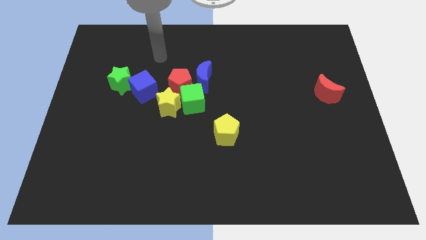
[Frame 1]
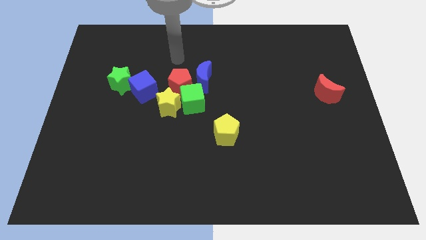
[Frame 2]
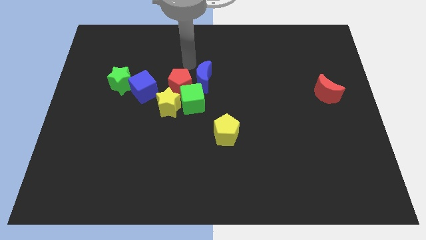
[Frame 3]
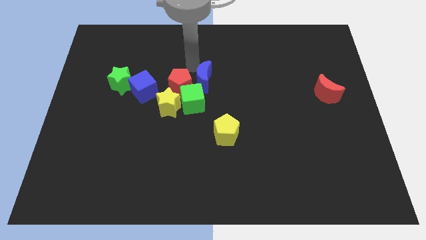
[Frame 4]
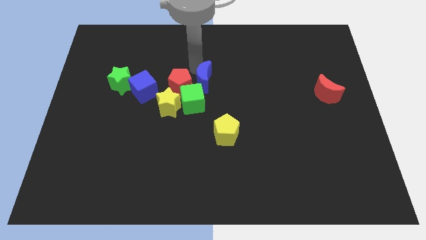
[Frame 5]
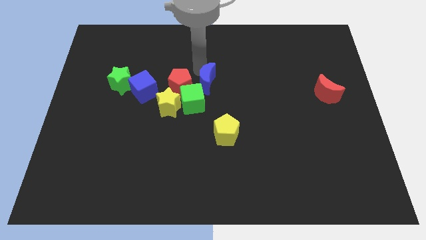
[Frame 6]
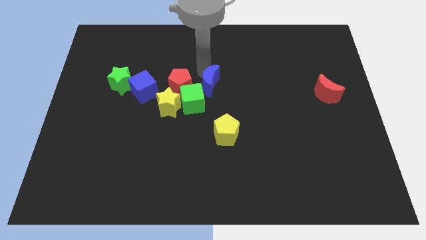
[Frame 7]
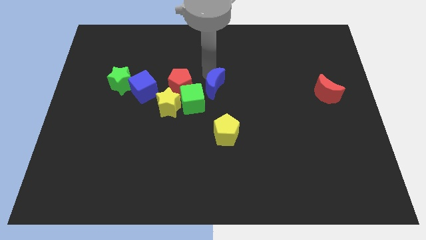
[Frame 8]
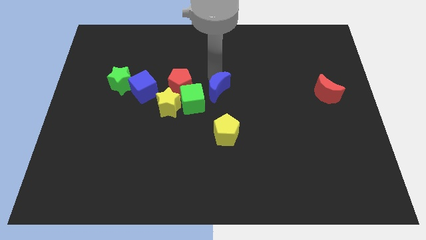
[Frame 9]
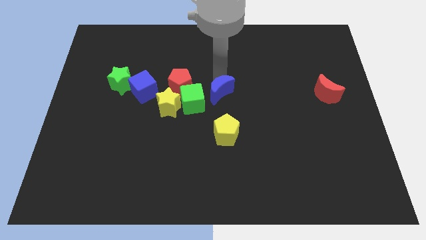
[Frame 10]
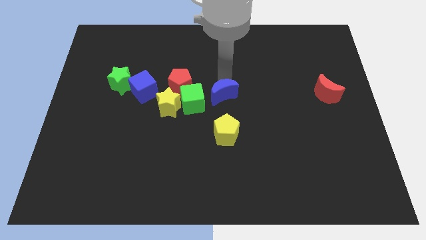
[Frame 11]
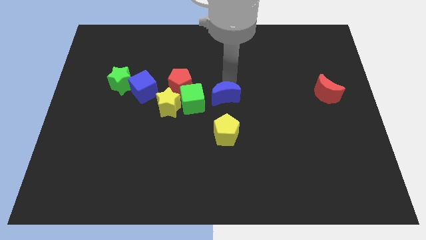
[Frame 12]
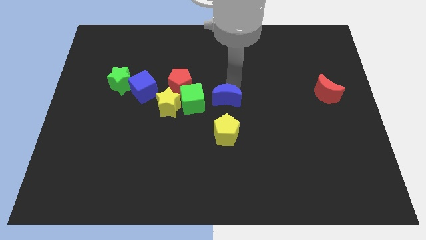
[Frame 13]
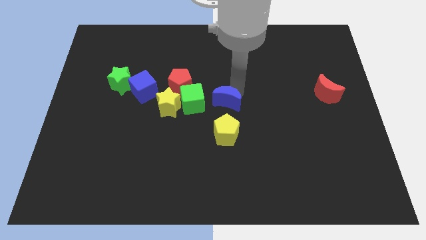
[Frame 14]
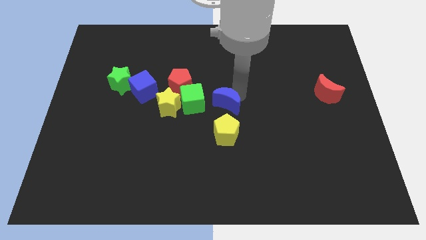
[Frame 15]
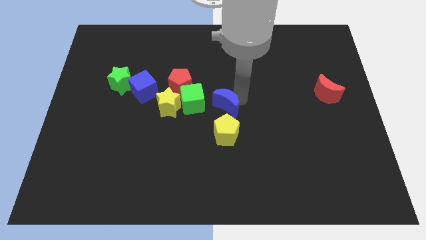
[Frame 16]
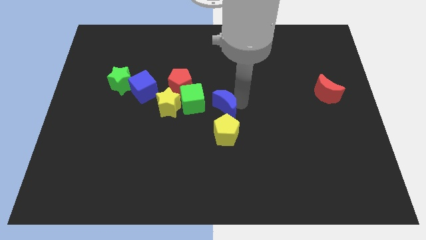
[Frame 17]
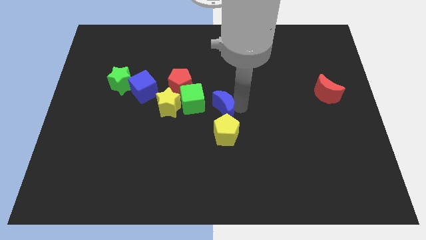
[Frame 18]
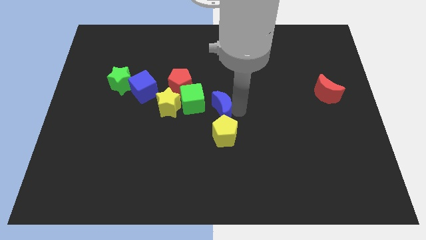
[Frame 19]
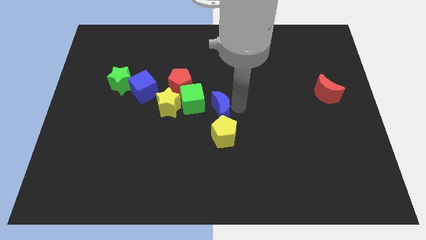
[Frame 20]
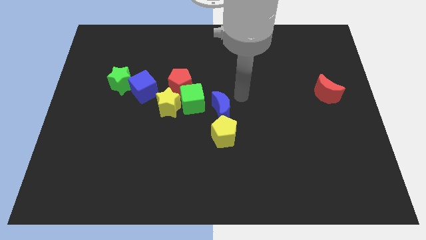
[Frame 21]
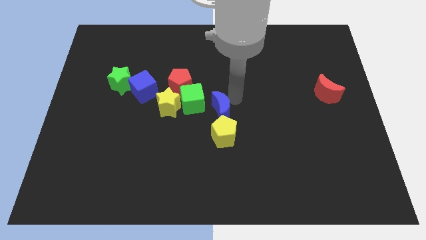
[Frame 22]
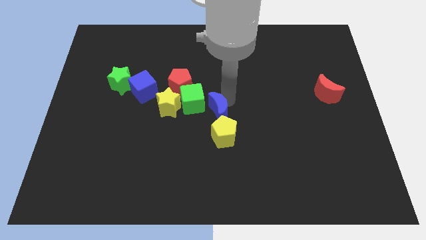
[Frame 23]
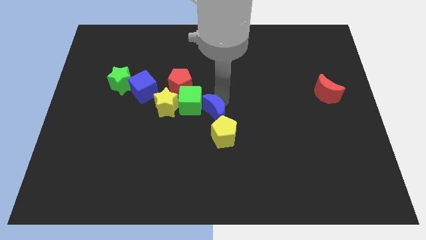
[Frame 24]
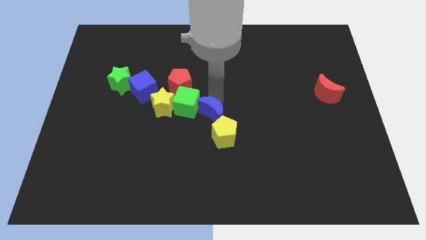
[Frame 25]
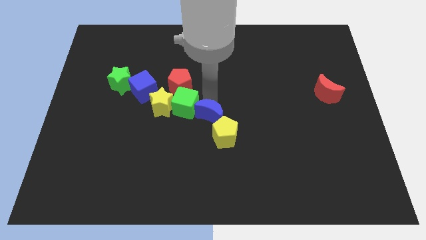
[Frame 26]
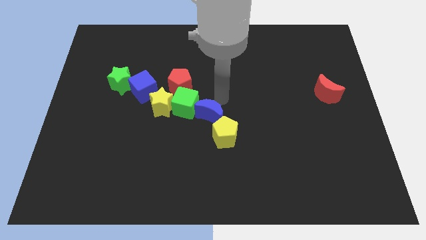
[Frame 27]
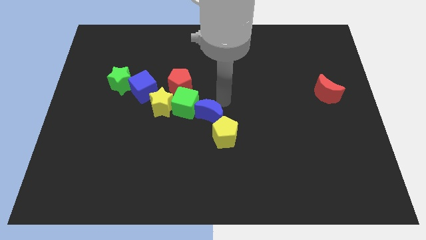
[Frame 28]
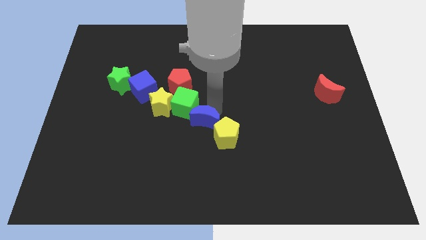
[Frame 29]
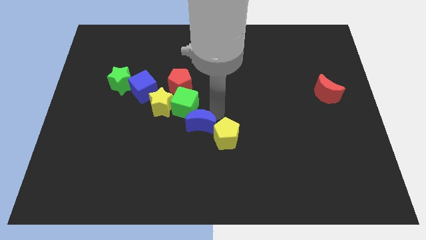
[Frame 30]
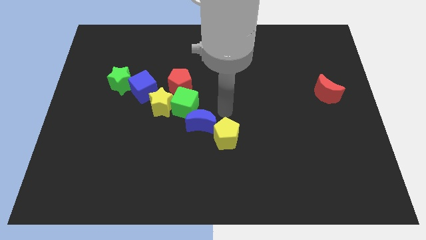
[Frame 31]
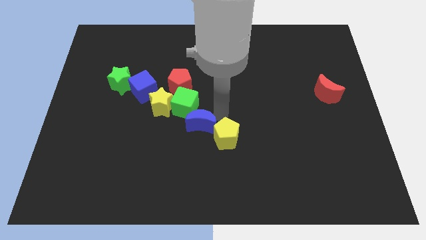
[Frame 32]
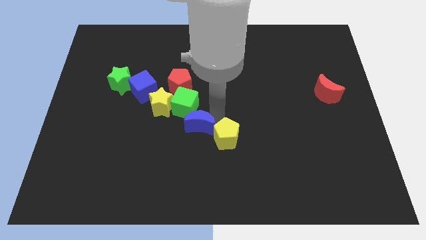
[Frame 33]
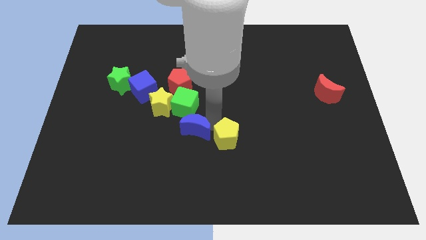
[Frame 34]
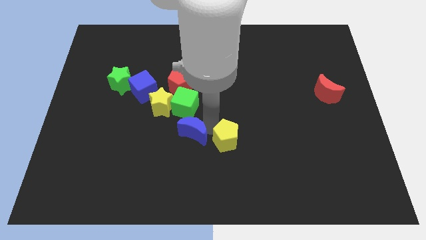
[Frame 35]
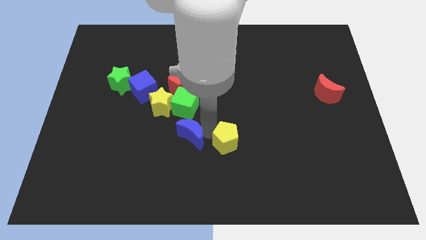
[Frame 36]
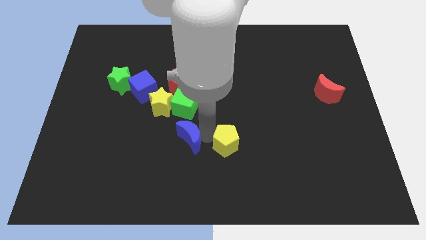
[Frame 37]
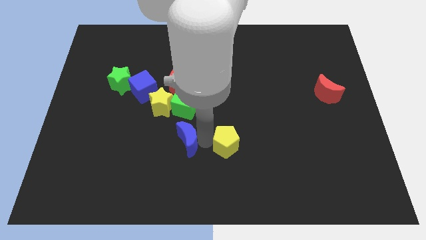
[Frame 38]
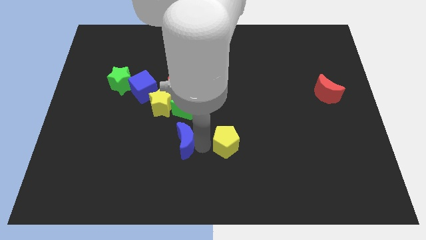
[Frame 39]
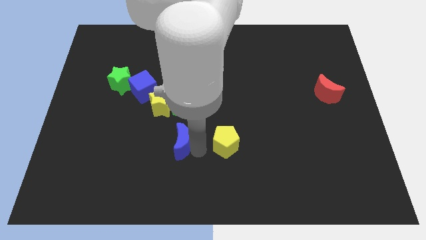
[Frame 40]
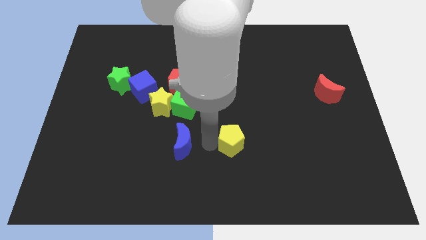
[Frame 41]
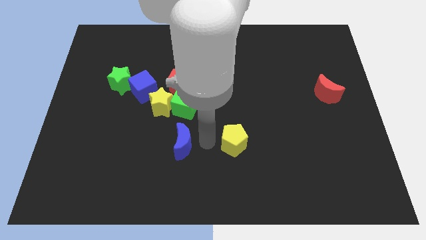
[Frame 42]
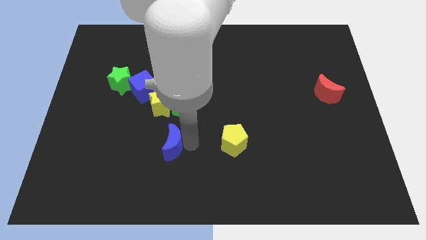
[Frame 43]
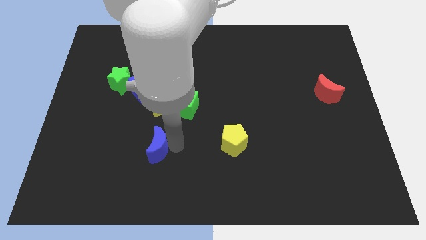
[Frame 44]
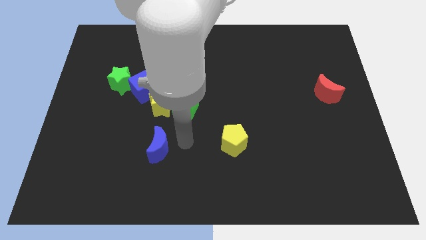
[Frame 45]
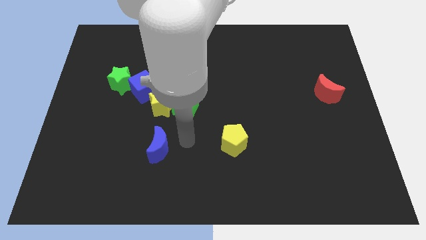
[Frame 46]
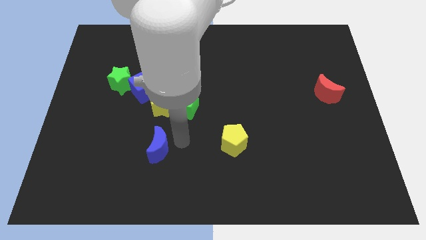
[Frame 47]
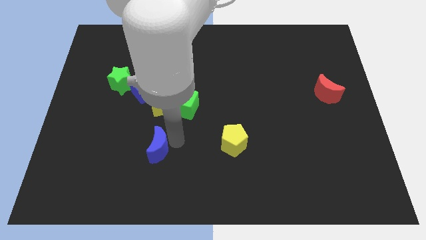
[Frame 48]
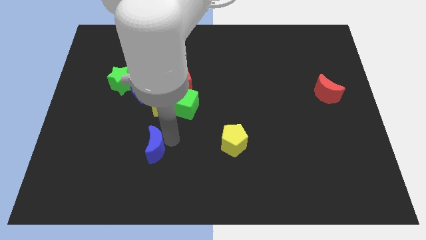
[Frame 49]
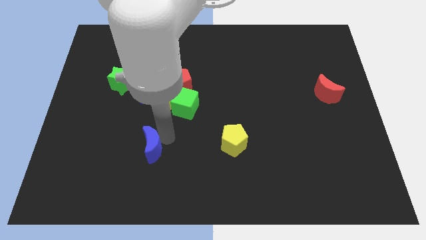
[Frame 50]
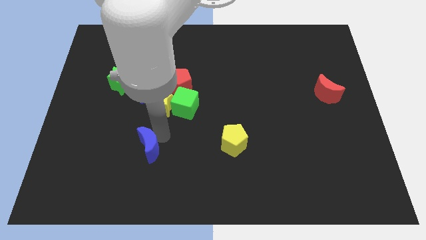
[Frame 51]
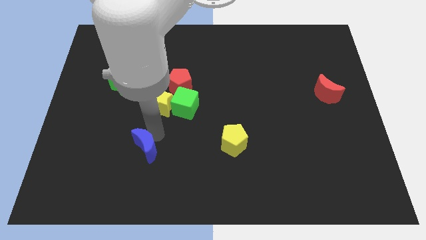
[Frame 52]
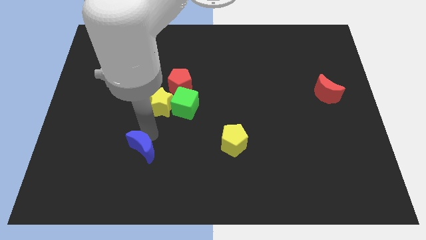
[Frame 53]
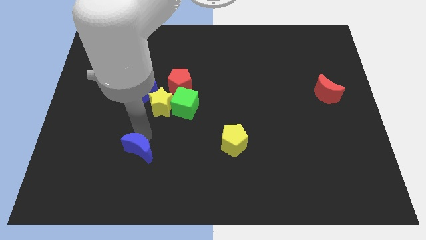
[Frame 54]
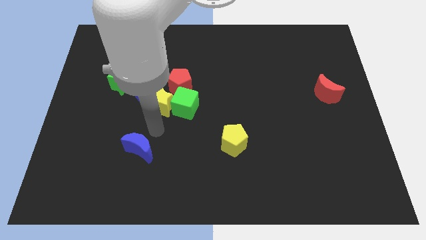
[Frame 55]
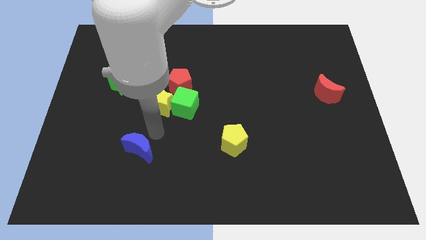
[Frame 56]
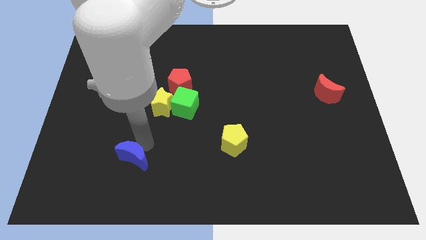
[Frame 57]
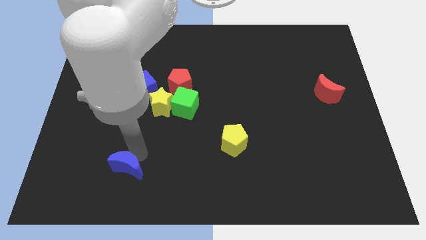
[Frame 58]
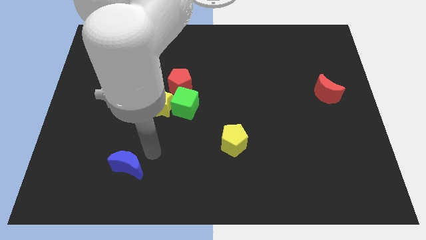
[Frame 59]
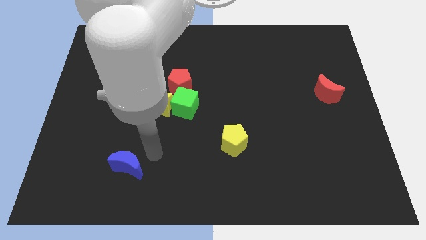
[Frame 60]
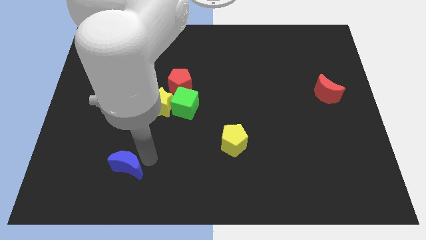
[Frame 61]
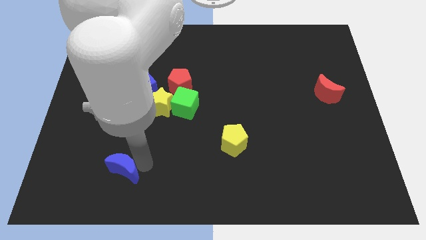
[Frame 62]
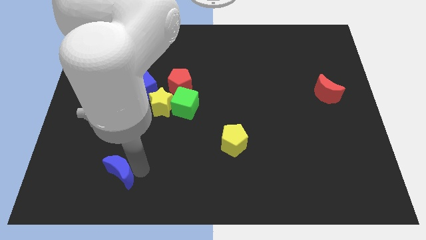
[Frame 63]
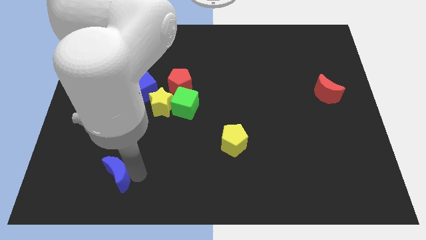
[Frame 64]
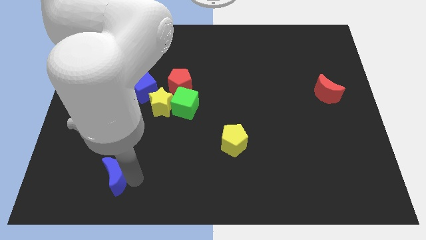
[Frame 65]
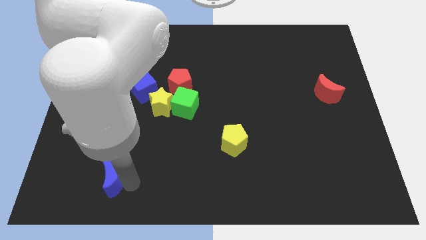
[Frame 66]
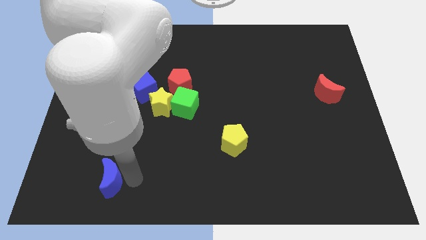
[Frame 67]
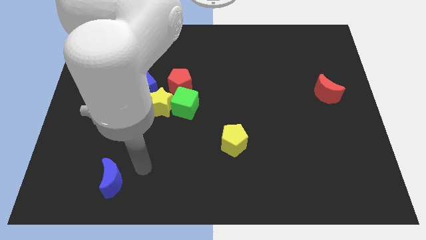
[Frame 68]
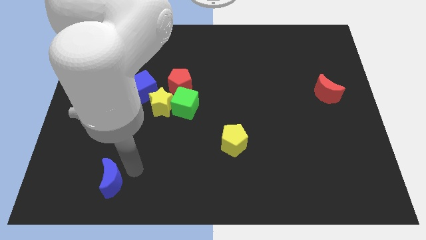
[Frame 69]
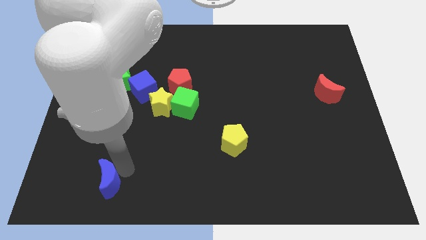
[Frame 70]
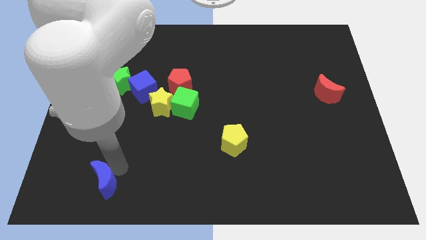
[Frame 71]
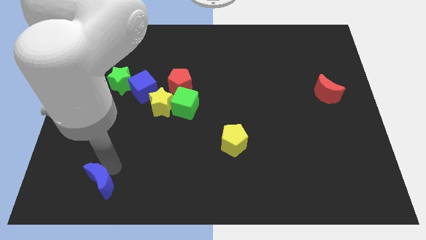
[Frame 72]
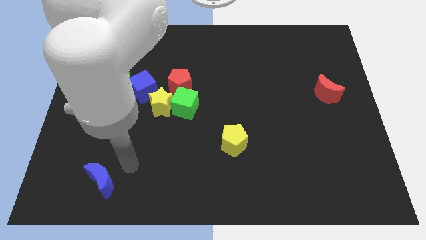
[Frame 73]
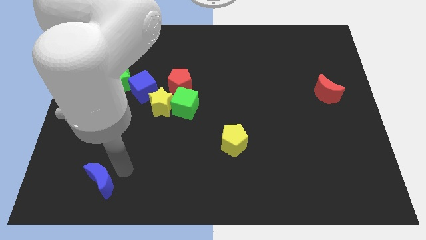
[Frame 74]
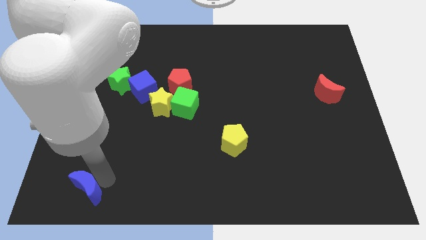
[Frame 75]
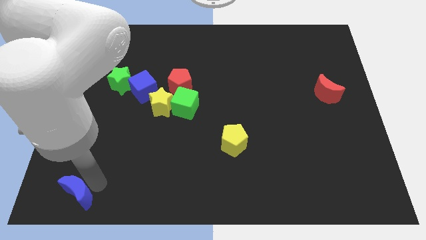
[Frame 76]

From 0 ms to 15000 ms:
move the blue moon to the bottom left
